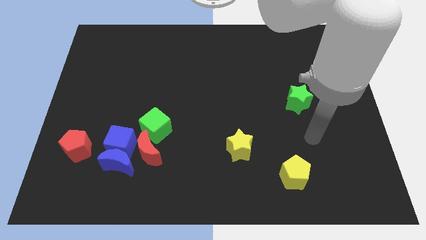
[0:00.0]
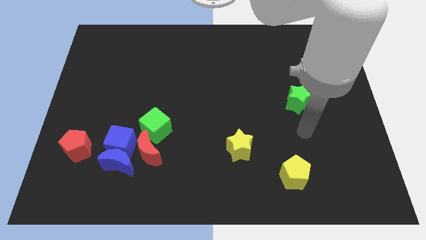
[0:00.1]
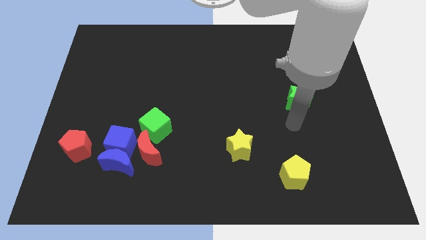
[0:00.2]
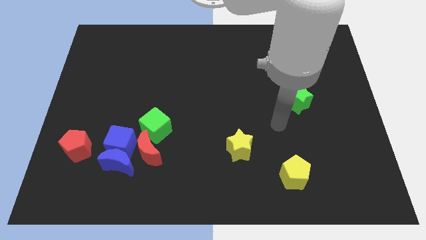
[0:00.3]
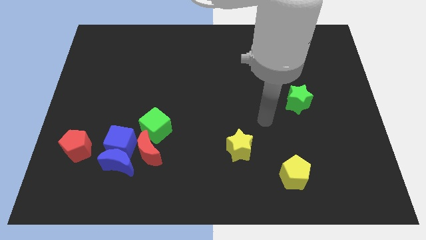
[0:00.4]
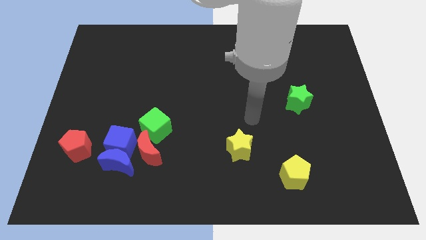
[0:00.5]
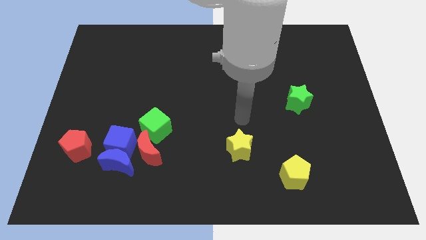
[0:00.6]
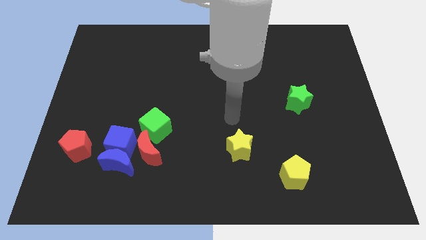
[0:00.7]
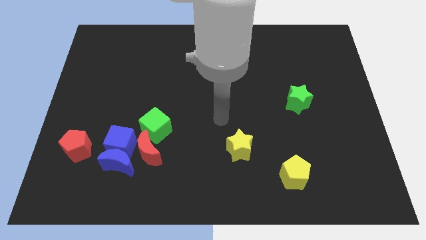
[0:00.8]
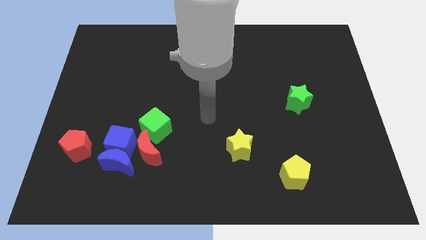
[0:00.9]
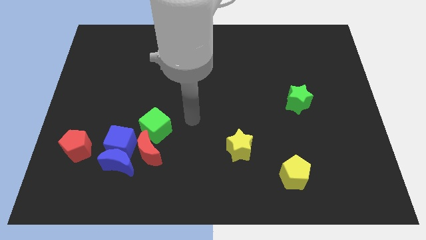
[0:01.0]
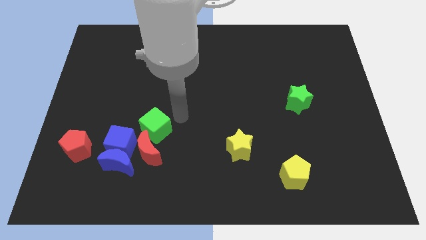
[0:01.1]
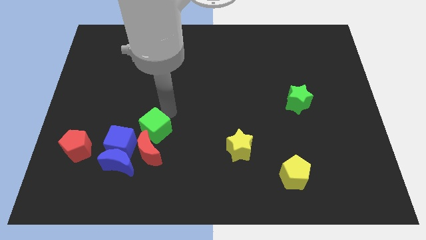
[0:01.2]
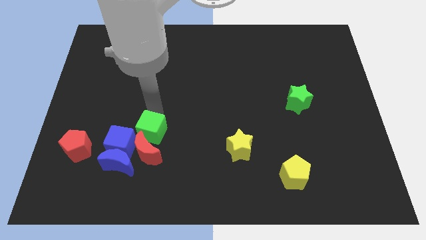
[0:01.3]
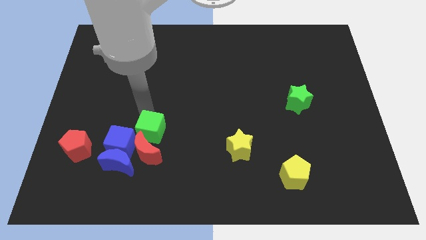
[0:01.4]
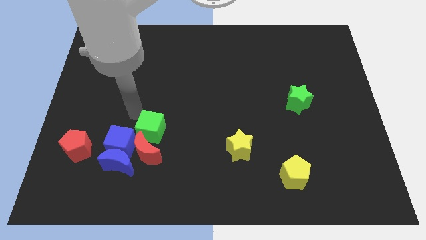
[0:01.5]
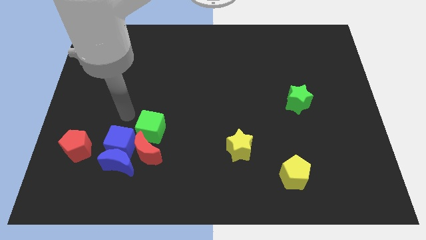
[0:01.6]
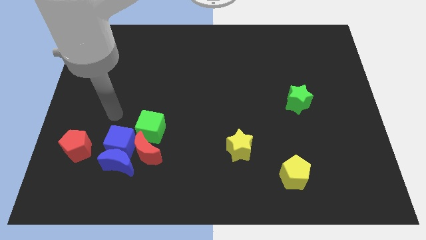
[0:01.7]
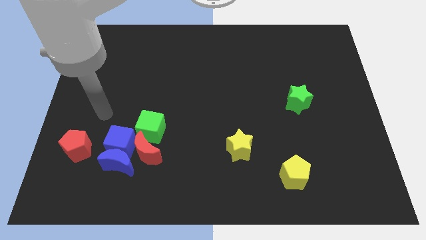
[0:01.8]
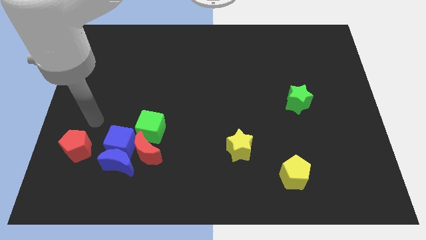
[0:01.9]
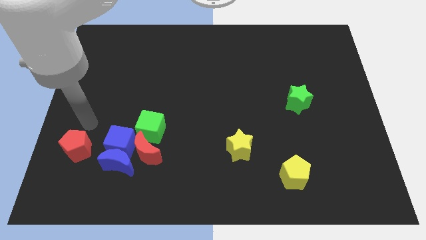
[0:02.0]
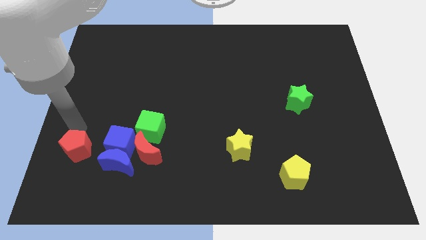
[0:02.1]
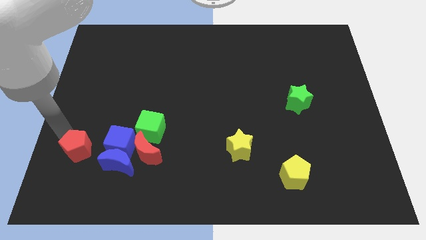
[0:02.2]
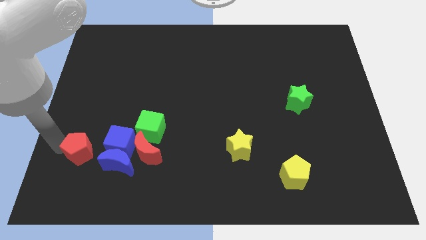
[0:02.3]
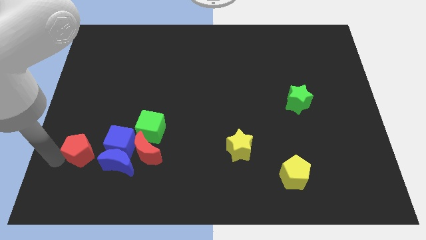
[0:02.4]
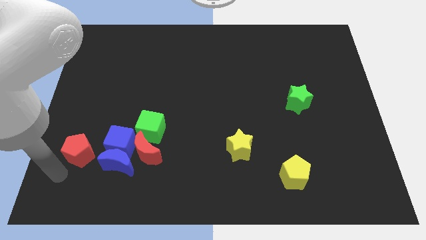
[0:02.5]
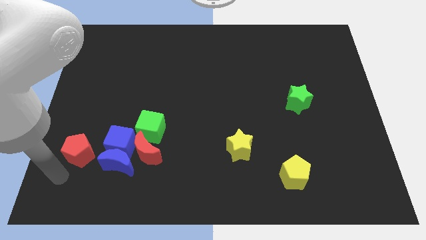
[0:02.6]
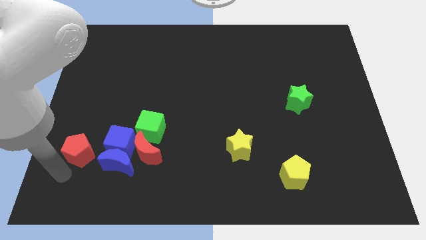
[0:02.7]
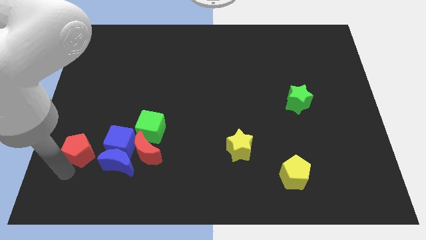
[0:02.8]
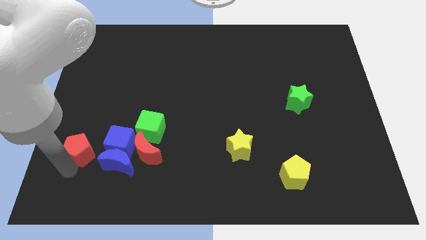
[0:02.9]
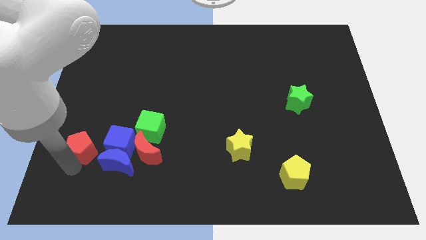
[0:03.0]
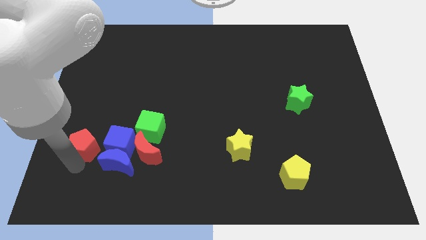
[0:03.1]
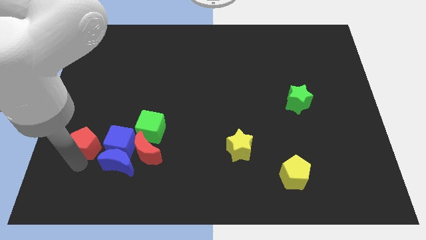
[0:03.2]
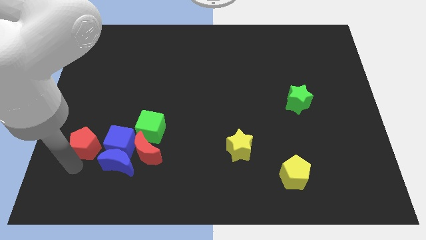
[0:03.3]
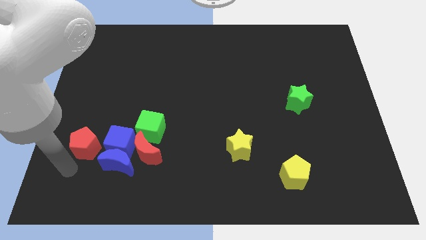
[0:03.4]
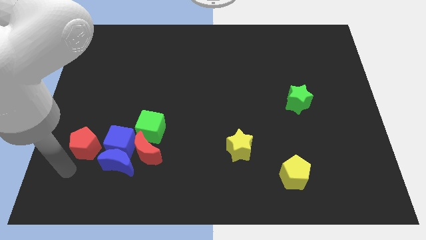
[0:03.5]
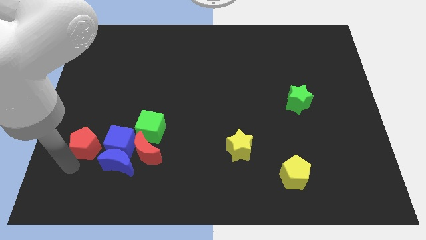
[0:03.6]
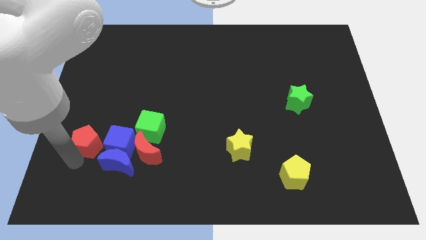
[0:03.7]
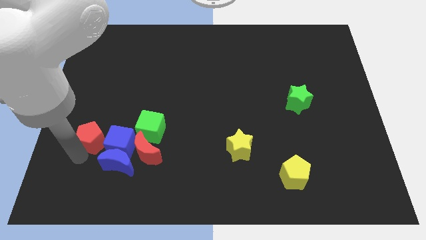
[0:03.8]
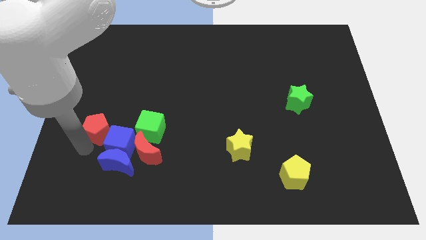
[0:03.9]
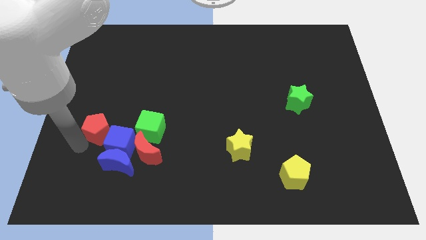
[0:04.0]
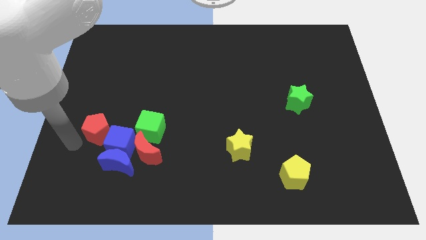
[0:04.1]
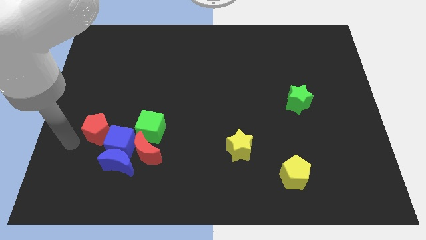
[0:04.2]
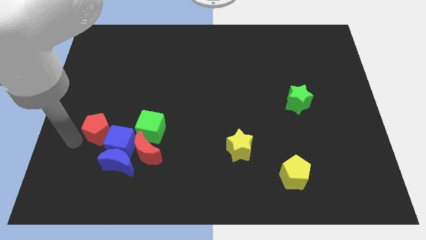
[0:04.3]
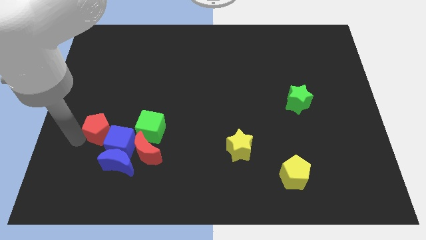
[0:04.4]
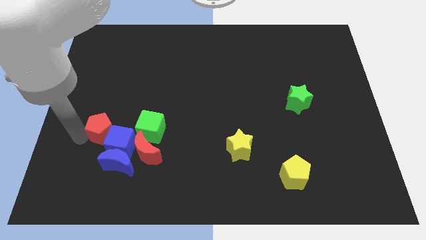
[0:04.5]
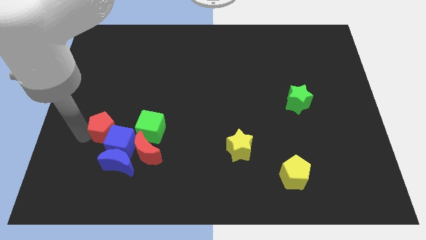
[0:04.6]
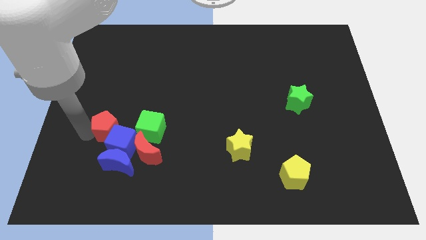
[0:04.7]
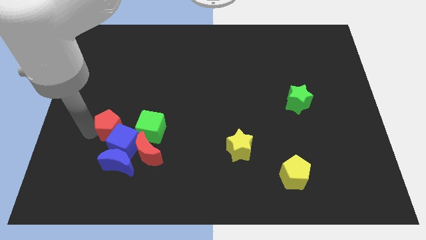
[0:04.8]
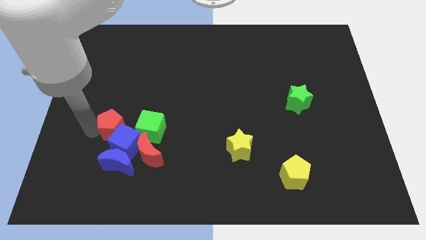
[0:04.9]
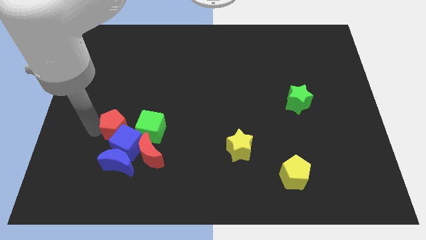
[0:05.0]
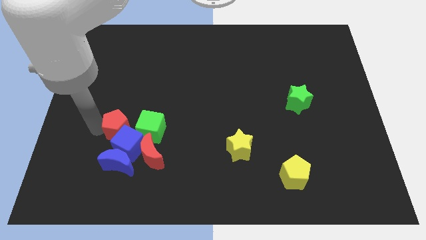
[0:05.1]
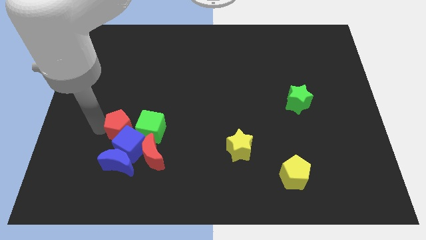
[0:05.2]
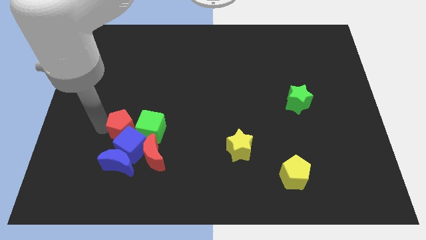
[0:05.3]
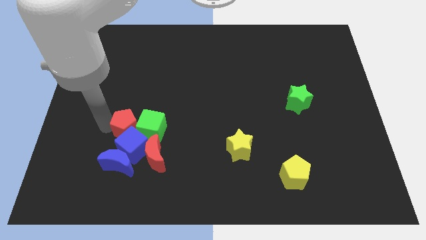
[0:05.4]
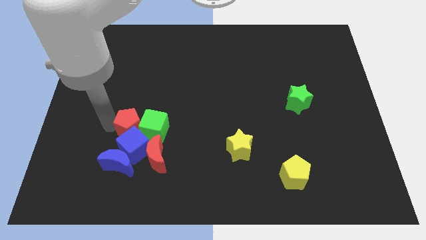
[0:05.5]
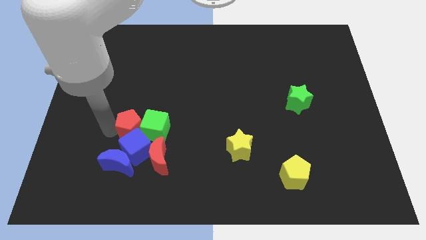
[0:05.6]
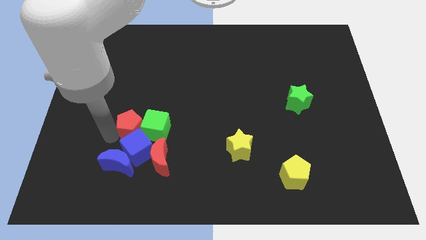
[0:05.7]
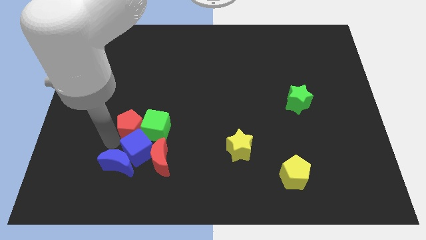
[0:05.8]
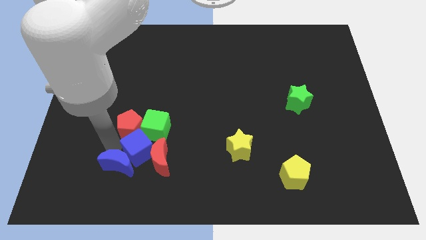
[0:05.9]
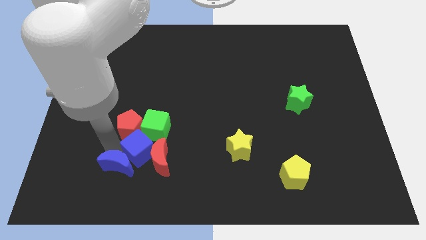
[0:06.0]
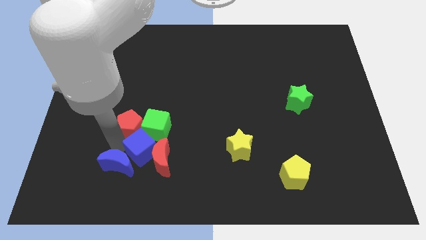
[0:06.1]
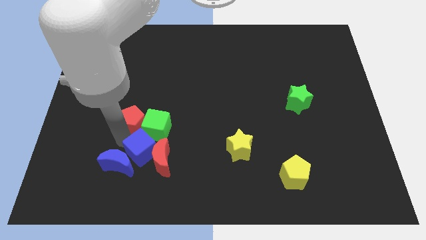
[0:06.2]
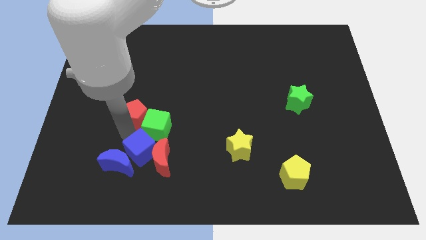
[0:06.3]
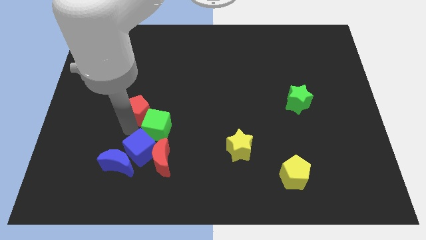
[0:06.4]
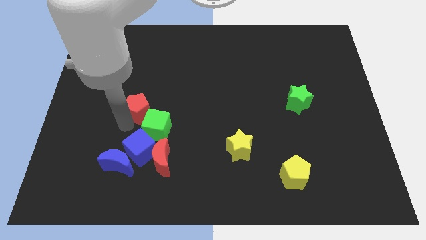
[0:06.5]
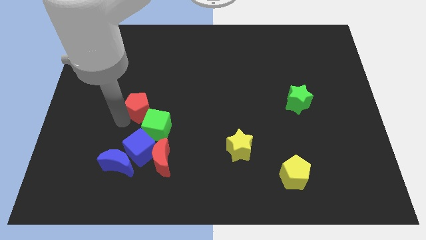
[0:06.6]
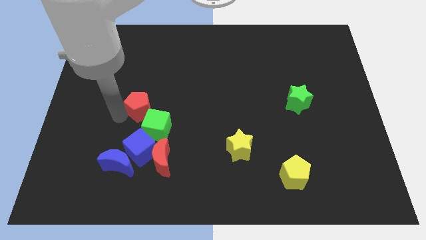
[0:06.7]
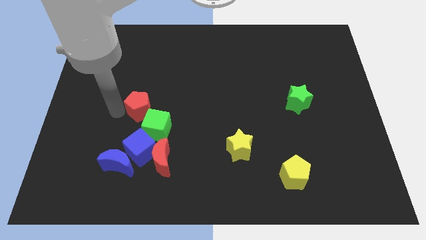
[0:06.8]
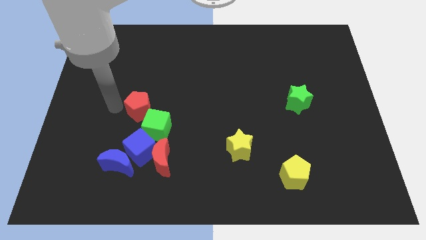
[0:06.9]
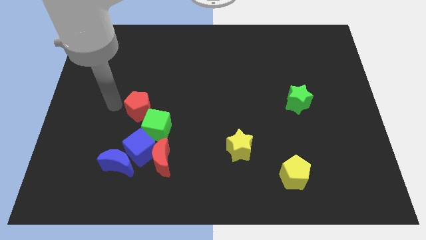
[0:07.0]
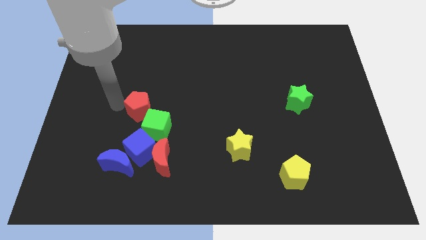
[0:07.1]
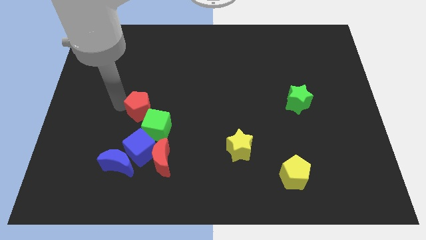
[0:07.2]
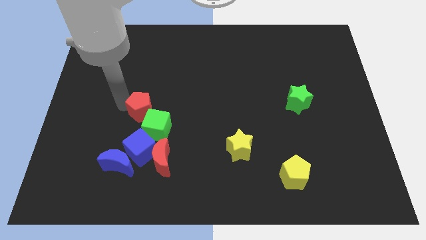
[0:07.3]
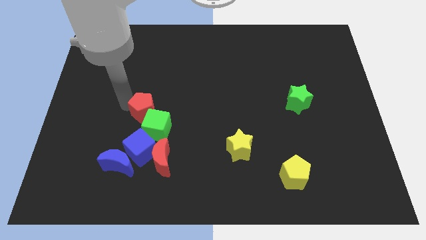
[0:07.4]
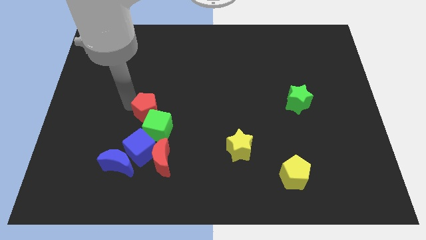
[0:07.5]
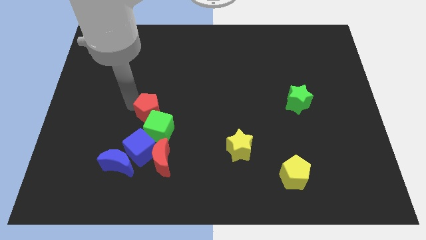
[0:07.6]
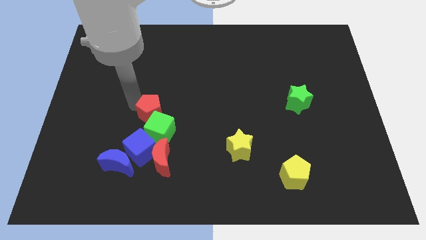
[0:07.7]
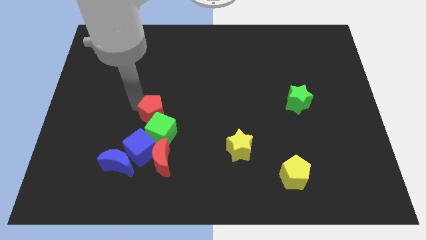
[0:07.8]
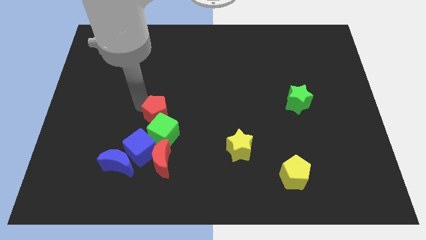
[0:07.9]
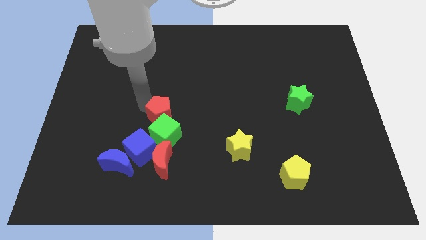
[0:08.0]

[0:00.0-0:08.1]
put the red pentagon to the center of the board
